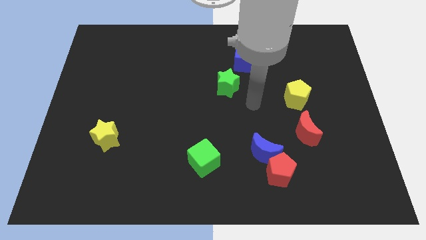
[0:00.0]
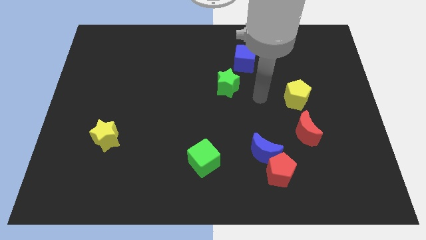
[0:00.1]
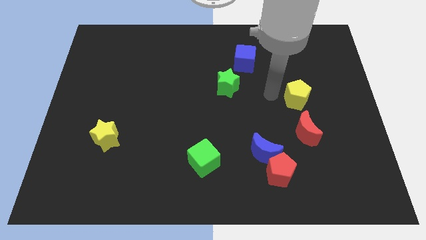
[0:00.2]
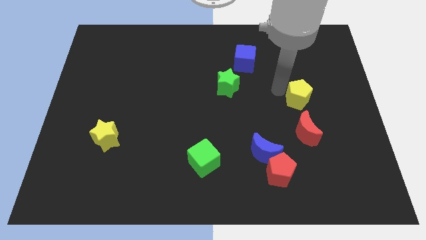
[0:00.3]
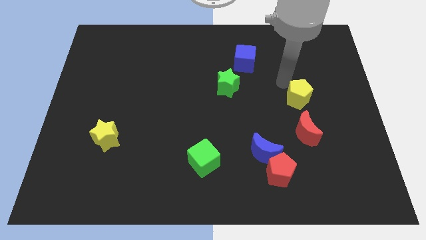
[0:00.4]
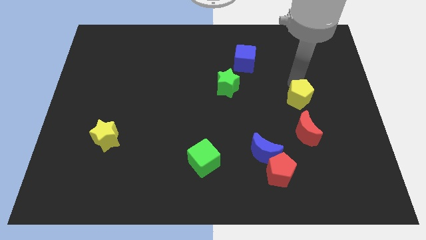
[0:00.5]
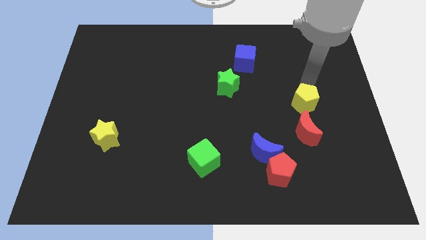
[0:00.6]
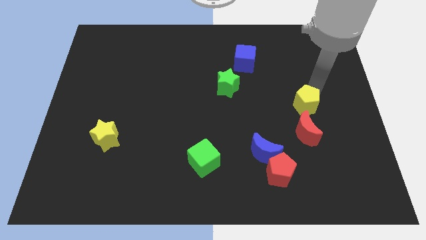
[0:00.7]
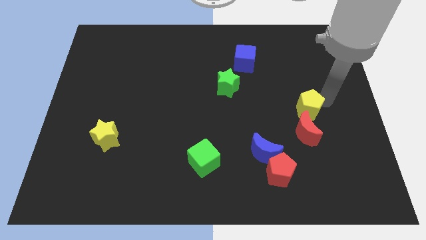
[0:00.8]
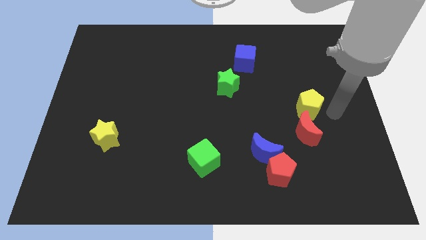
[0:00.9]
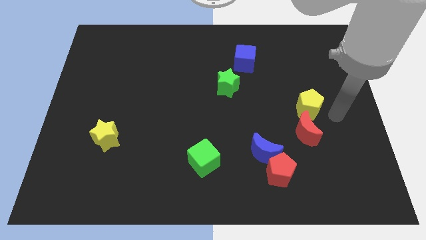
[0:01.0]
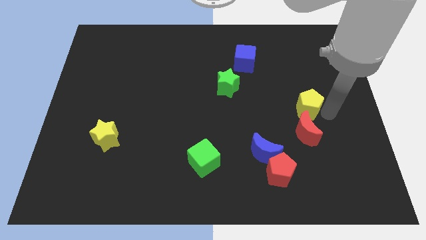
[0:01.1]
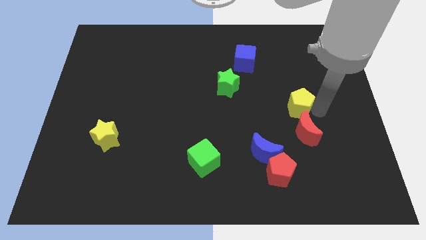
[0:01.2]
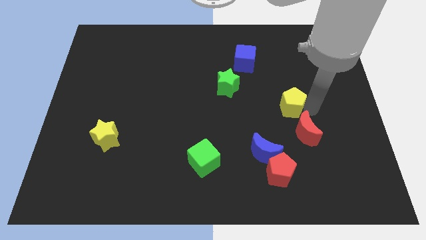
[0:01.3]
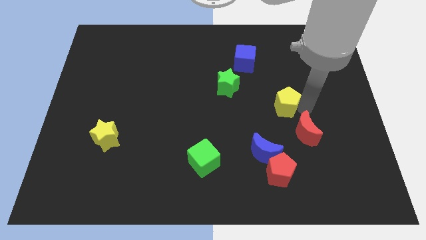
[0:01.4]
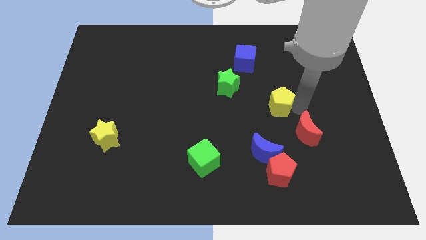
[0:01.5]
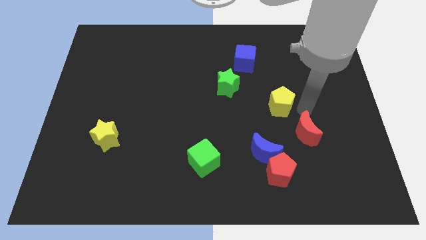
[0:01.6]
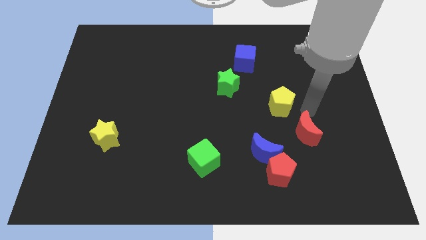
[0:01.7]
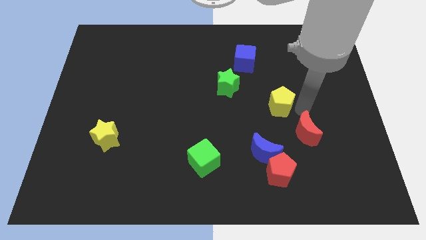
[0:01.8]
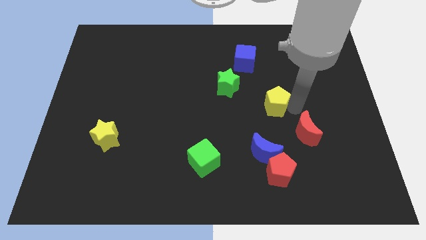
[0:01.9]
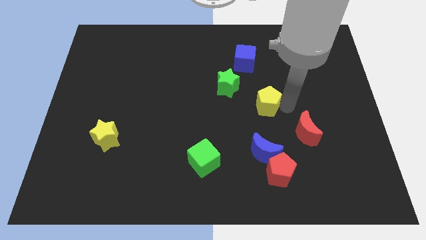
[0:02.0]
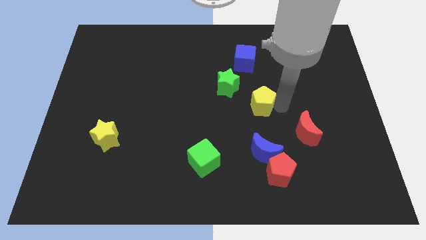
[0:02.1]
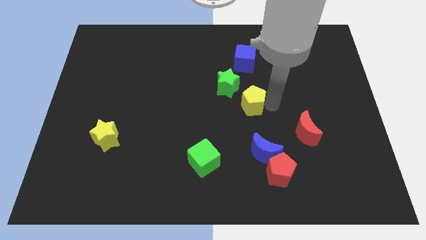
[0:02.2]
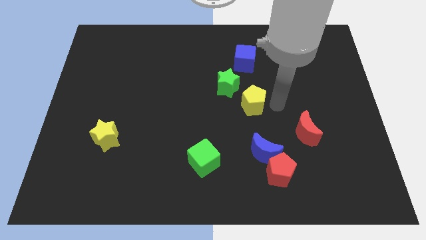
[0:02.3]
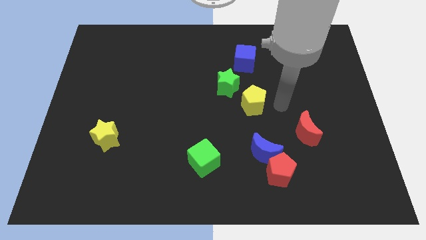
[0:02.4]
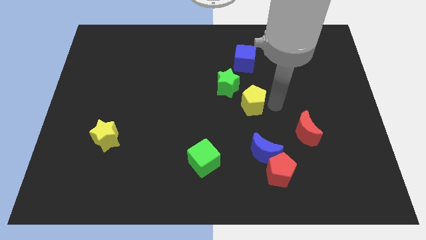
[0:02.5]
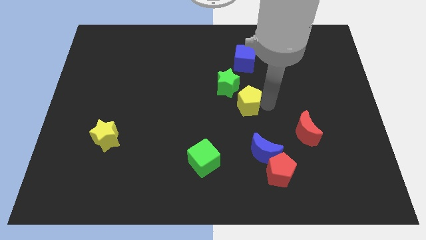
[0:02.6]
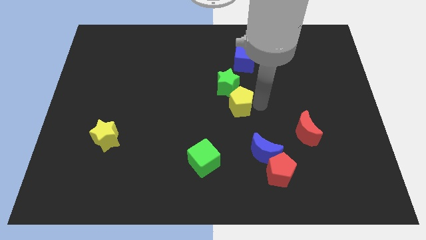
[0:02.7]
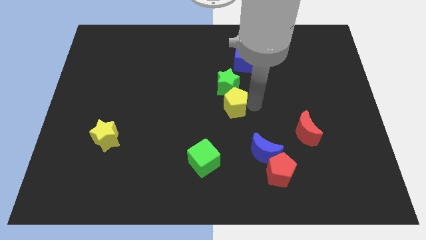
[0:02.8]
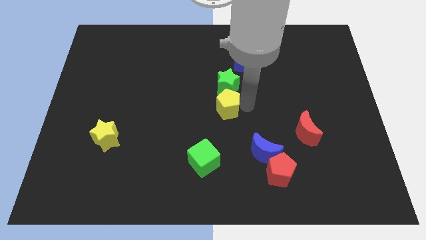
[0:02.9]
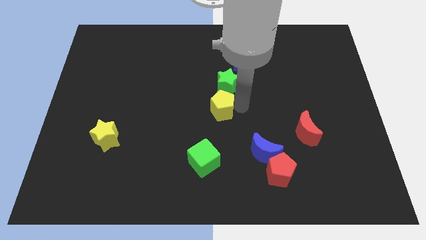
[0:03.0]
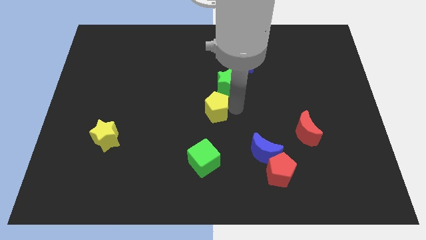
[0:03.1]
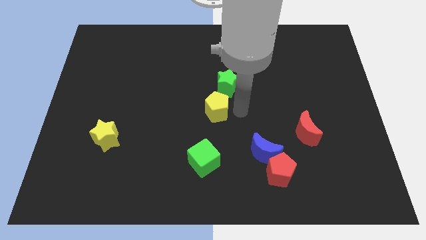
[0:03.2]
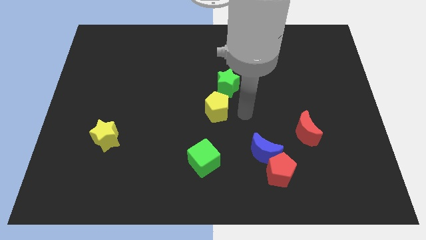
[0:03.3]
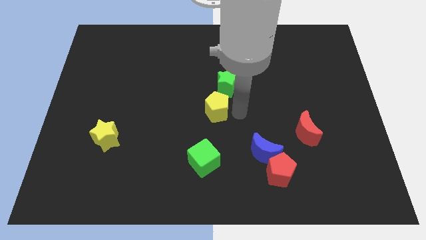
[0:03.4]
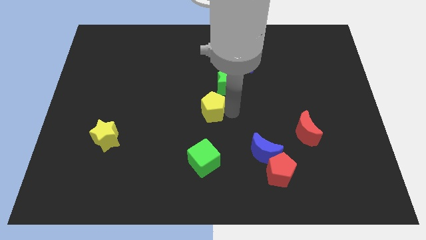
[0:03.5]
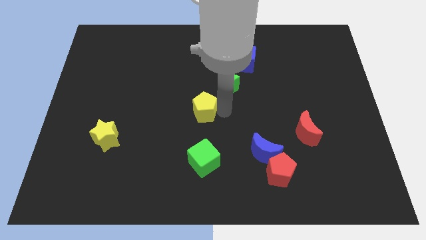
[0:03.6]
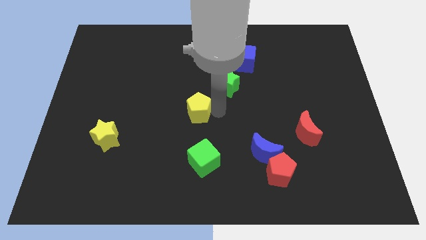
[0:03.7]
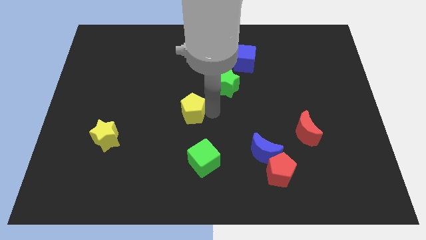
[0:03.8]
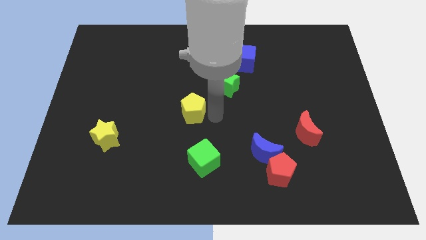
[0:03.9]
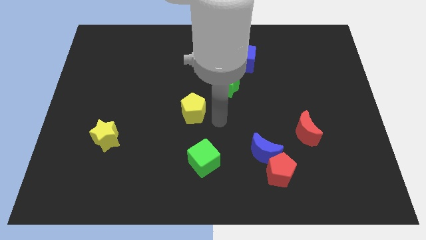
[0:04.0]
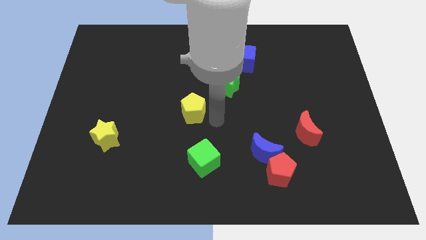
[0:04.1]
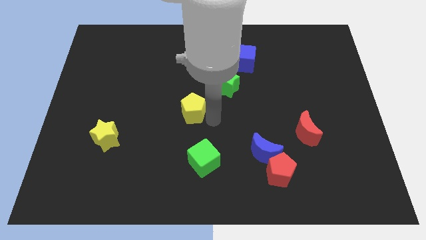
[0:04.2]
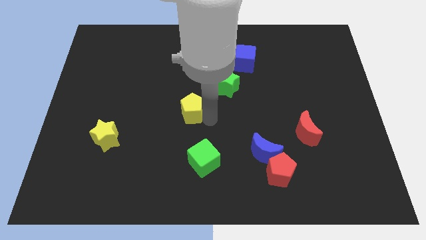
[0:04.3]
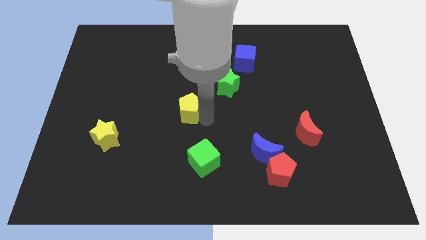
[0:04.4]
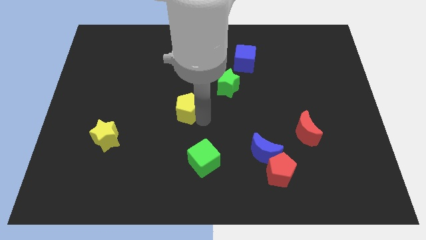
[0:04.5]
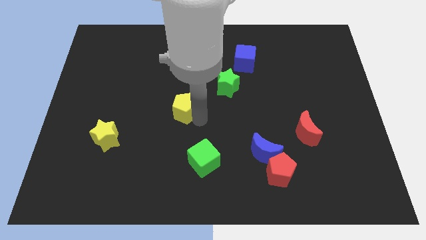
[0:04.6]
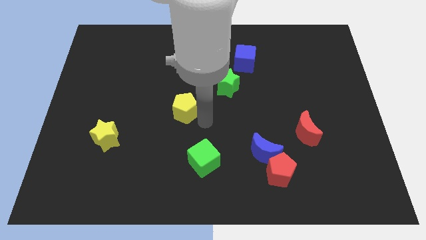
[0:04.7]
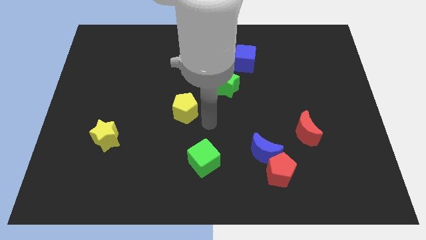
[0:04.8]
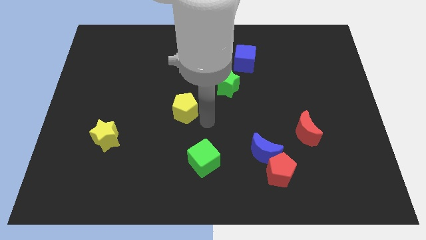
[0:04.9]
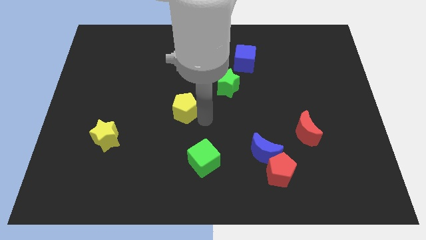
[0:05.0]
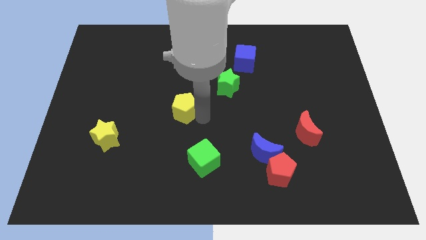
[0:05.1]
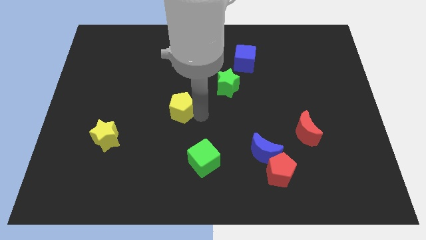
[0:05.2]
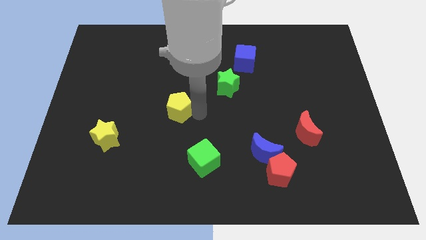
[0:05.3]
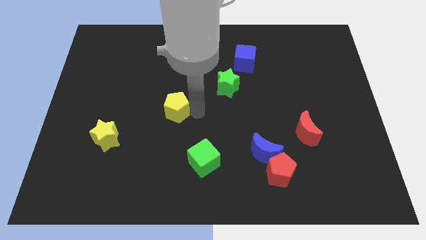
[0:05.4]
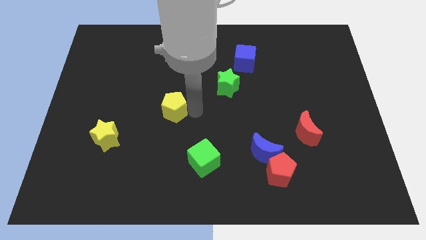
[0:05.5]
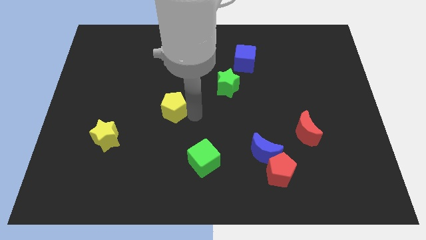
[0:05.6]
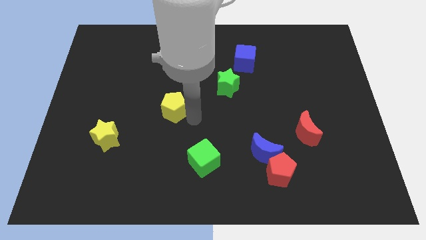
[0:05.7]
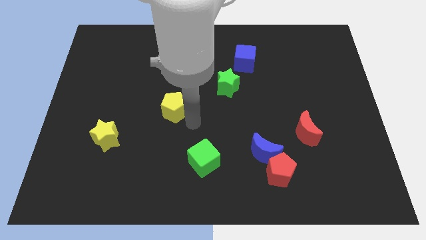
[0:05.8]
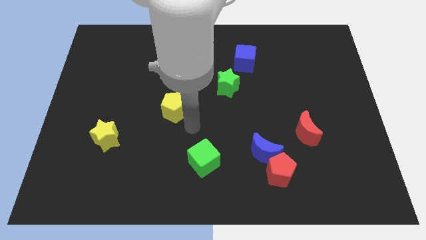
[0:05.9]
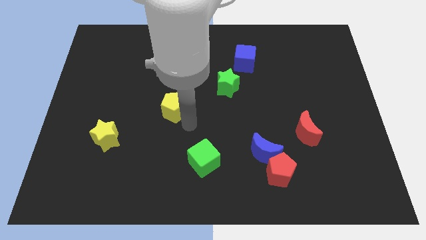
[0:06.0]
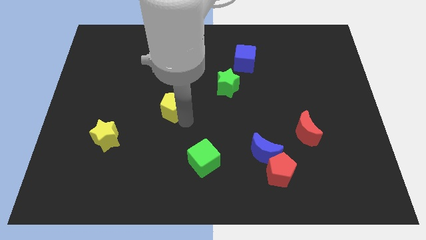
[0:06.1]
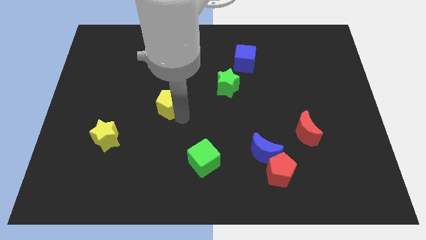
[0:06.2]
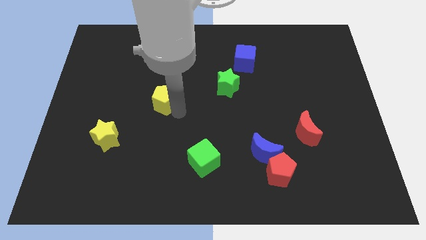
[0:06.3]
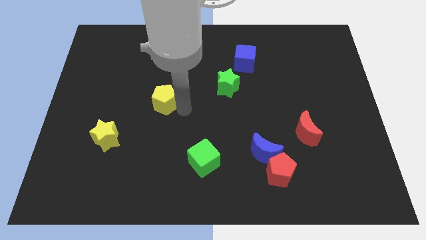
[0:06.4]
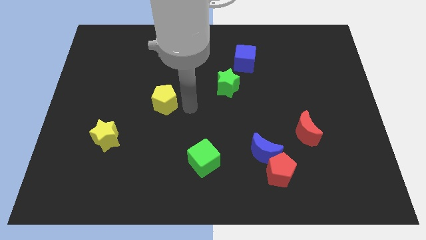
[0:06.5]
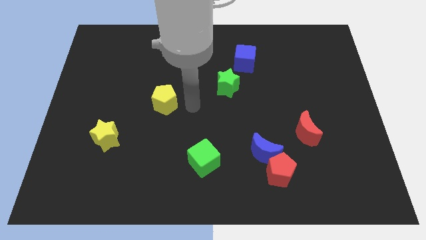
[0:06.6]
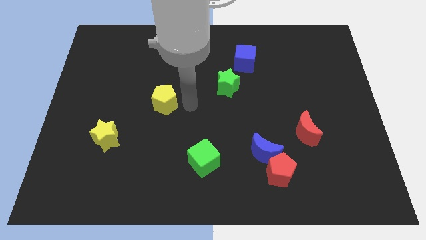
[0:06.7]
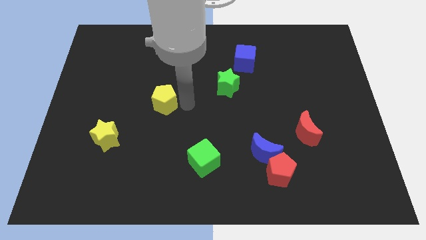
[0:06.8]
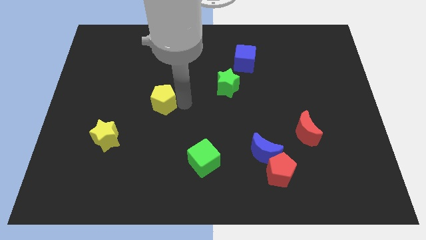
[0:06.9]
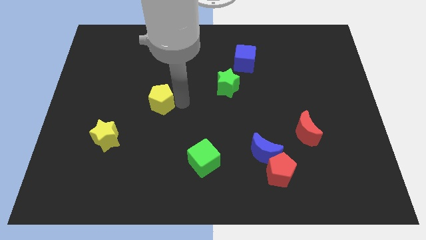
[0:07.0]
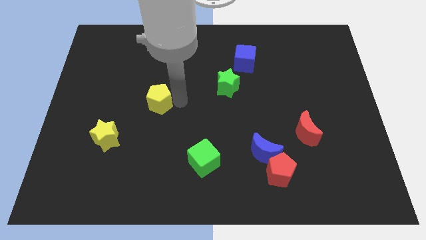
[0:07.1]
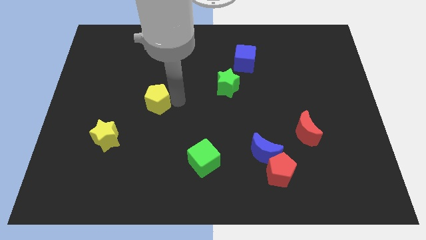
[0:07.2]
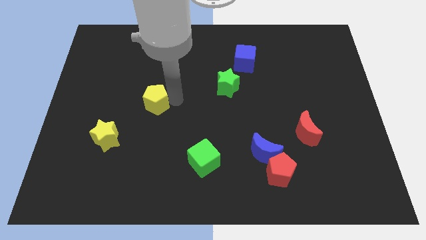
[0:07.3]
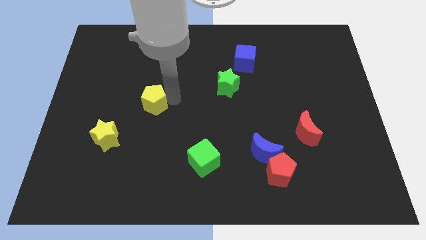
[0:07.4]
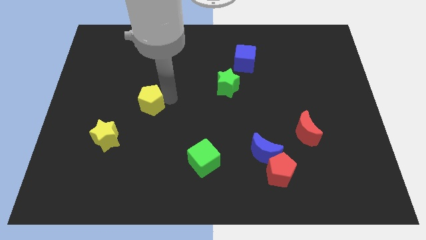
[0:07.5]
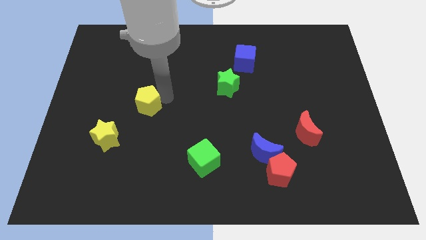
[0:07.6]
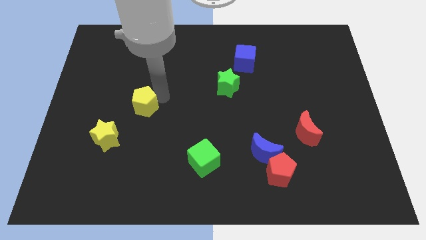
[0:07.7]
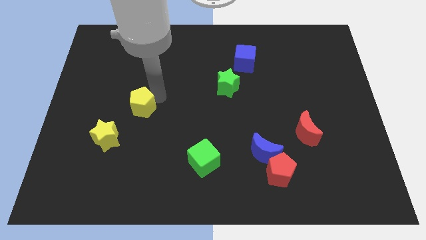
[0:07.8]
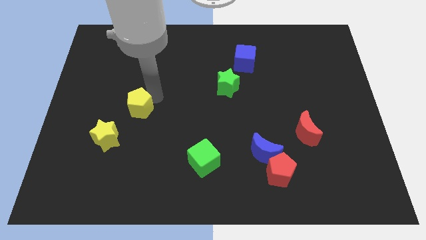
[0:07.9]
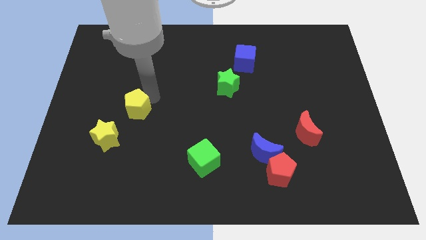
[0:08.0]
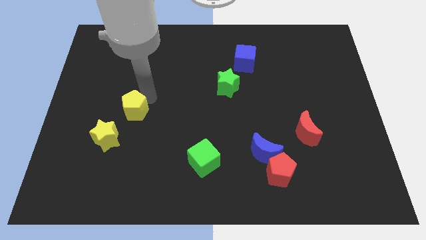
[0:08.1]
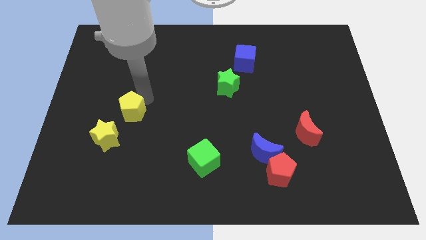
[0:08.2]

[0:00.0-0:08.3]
move the yellow pentagon to the top side of the yellow star
